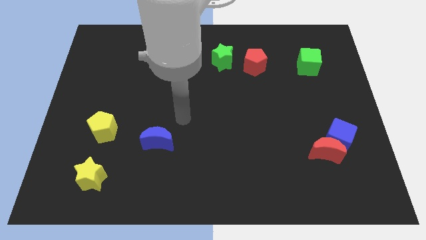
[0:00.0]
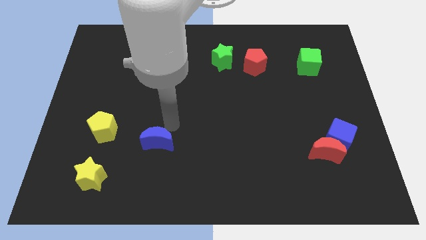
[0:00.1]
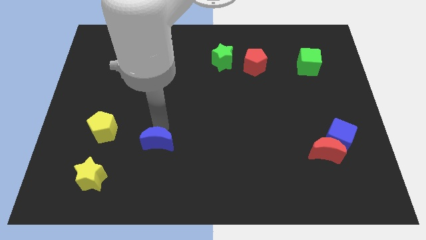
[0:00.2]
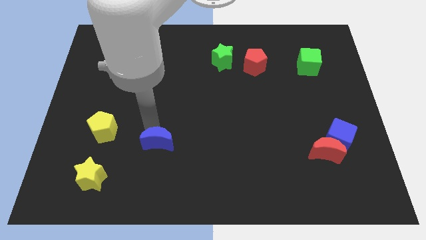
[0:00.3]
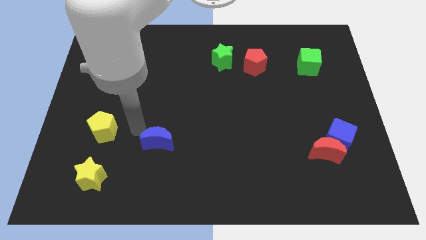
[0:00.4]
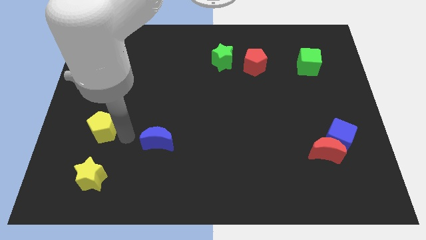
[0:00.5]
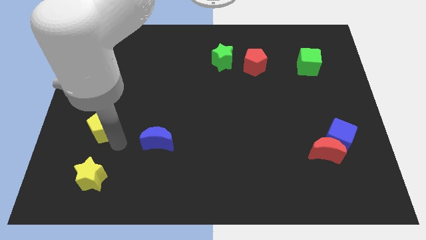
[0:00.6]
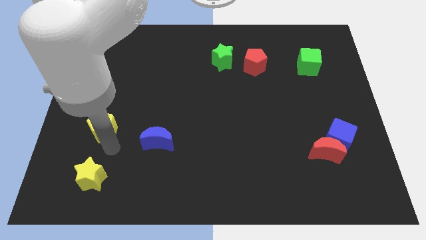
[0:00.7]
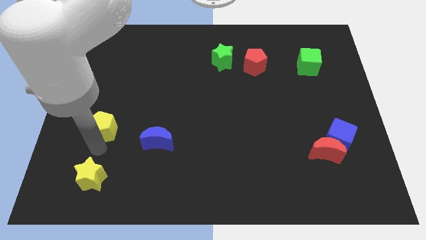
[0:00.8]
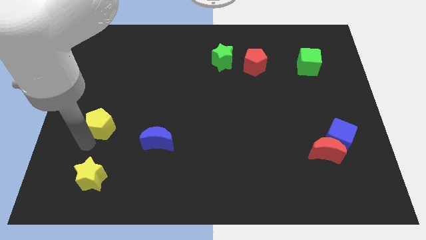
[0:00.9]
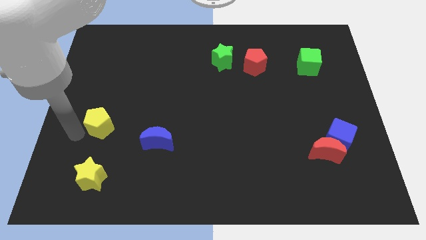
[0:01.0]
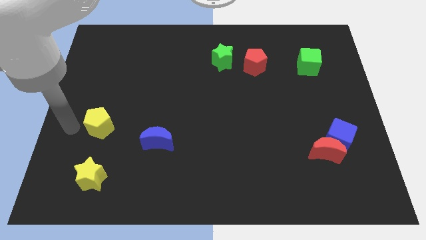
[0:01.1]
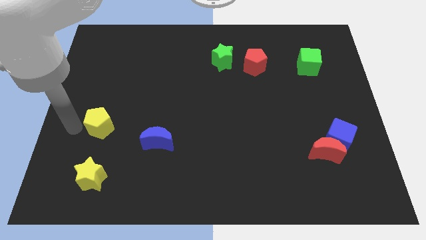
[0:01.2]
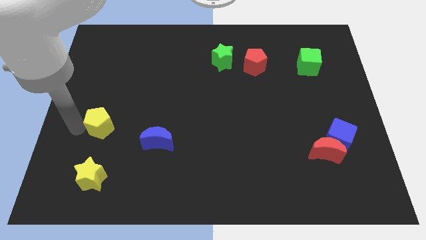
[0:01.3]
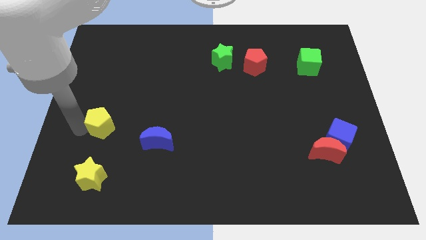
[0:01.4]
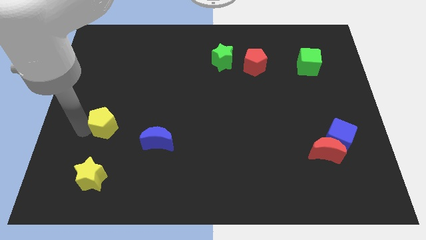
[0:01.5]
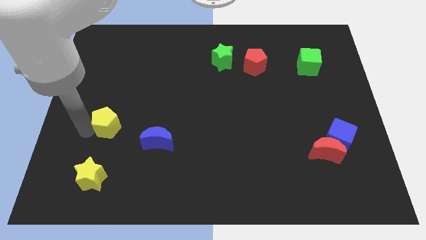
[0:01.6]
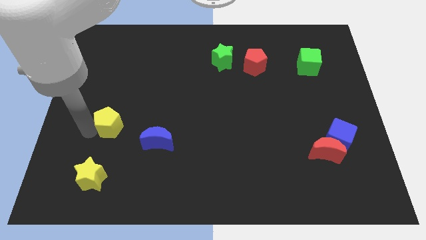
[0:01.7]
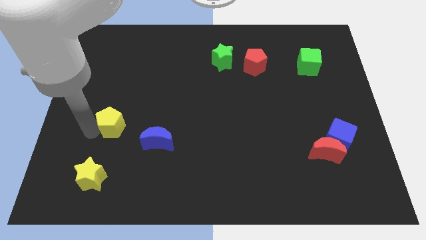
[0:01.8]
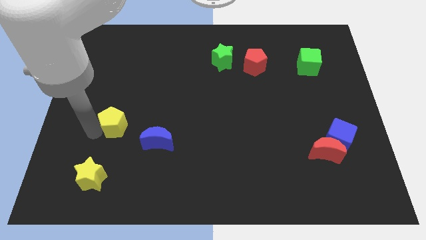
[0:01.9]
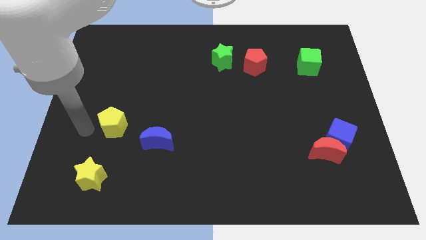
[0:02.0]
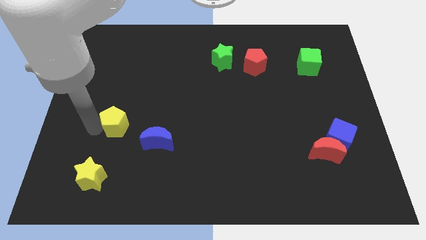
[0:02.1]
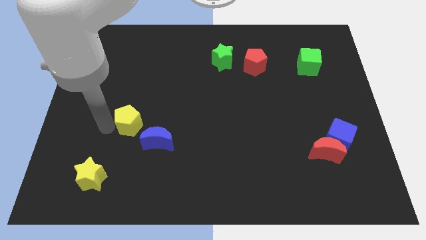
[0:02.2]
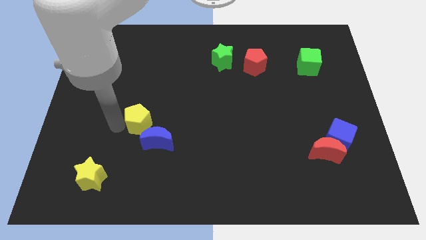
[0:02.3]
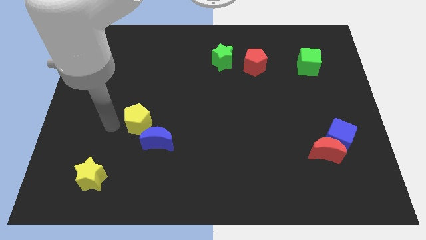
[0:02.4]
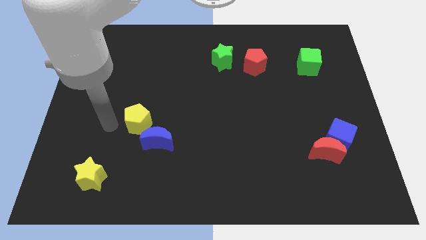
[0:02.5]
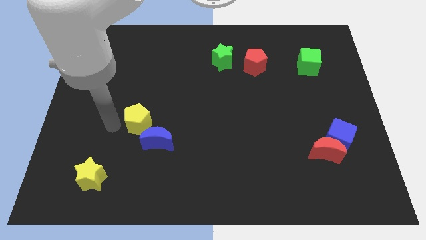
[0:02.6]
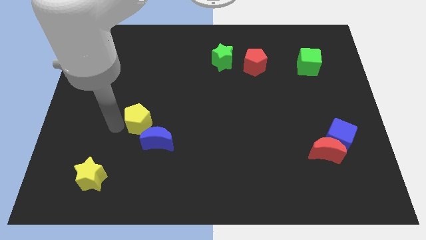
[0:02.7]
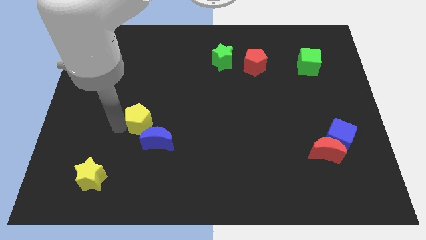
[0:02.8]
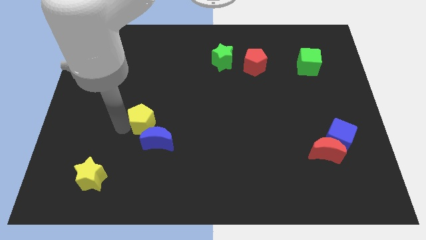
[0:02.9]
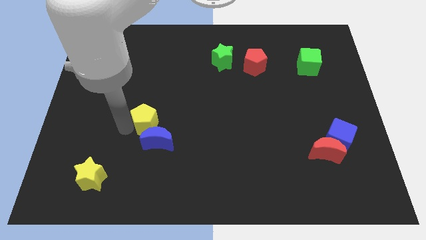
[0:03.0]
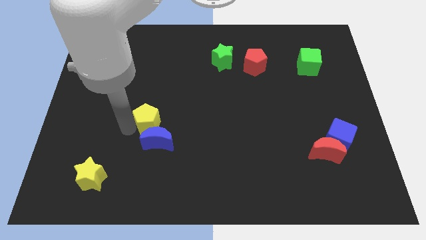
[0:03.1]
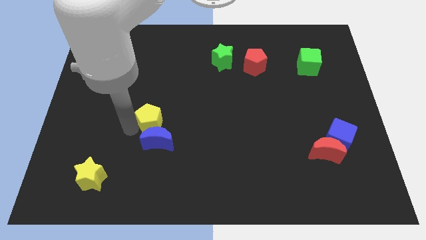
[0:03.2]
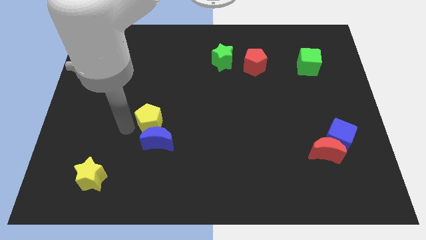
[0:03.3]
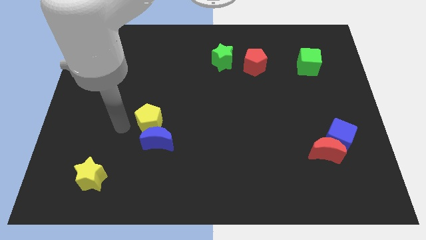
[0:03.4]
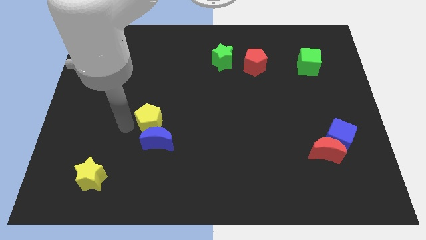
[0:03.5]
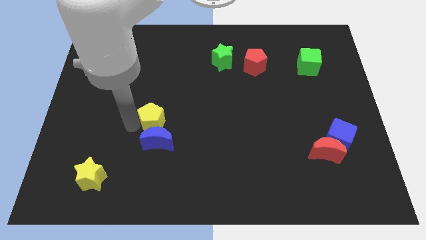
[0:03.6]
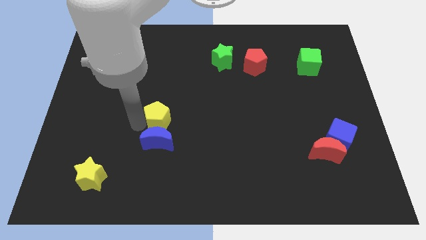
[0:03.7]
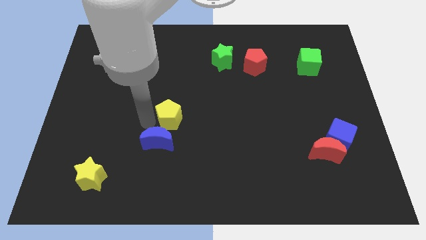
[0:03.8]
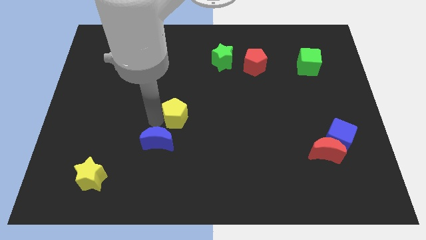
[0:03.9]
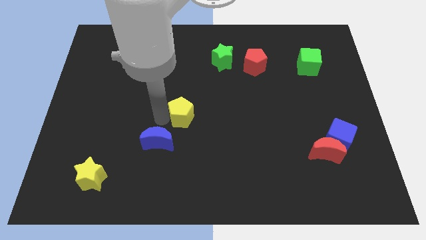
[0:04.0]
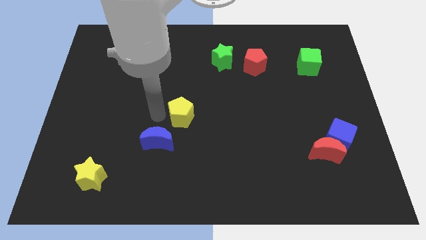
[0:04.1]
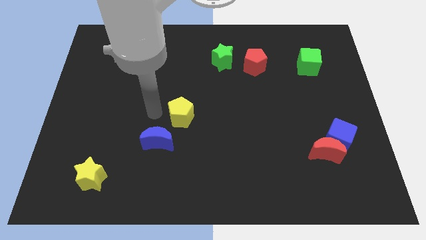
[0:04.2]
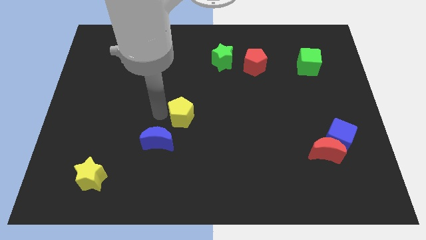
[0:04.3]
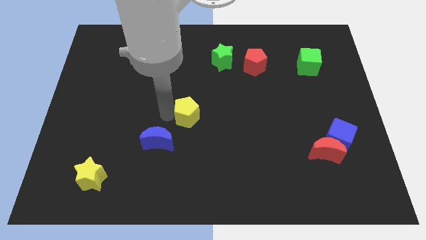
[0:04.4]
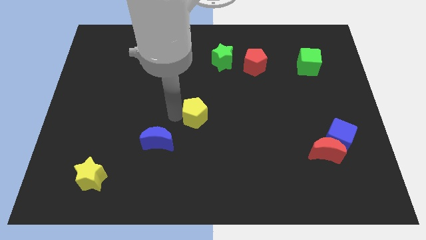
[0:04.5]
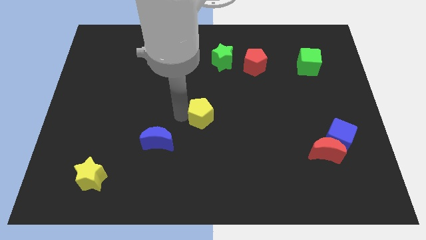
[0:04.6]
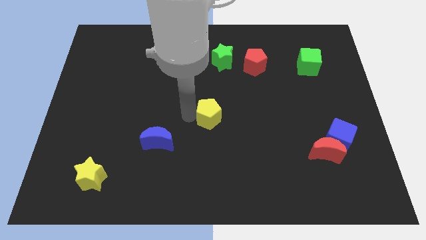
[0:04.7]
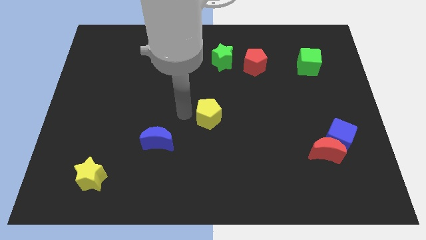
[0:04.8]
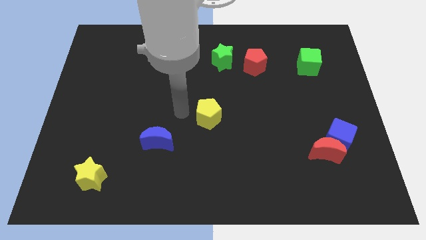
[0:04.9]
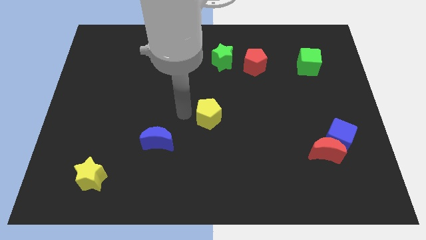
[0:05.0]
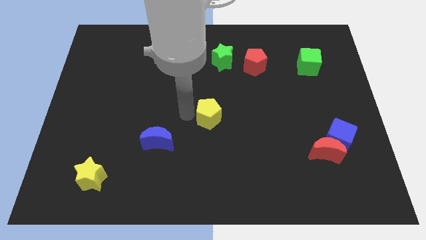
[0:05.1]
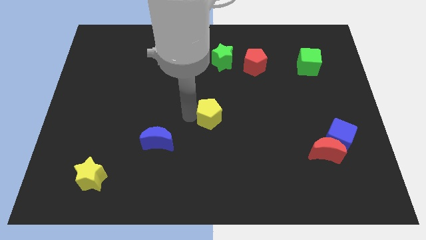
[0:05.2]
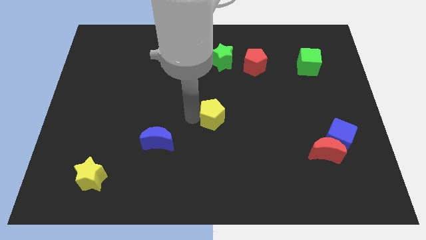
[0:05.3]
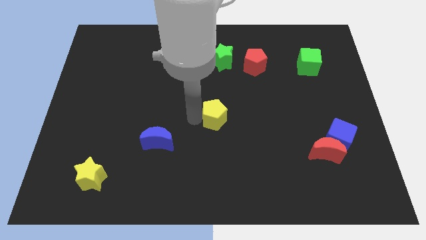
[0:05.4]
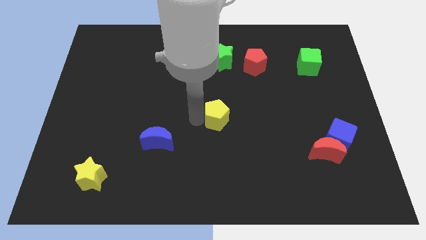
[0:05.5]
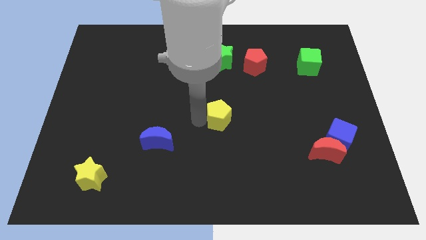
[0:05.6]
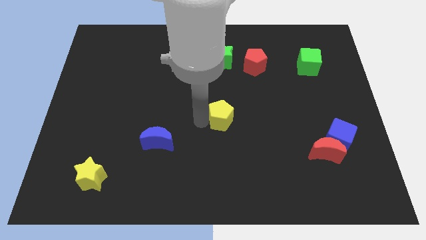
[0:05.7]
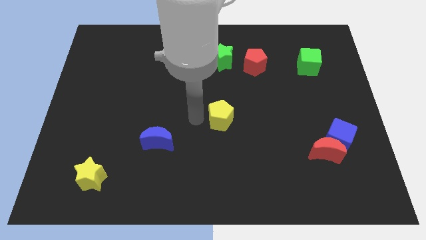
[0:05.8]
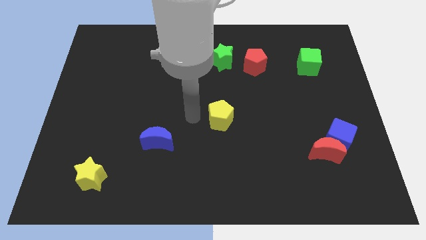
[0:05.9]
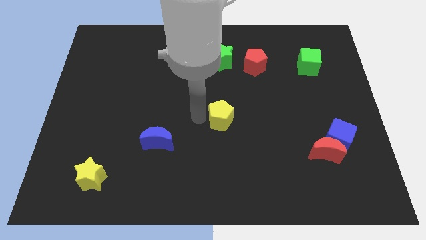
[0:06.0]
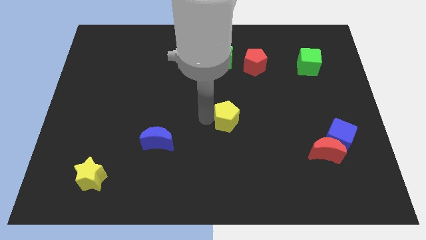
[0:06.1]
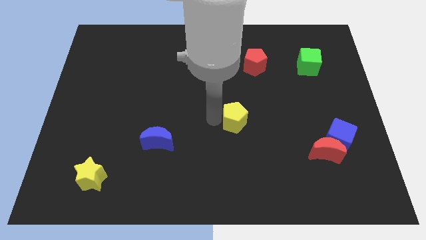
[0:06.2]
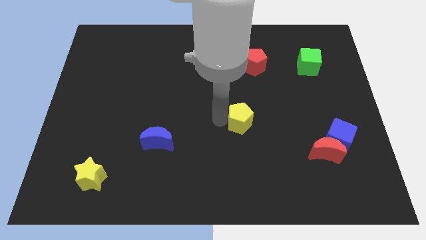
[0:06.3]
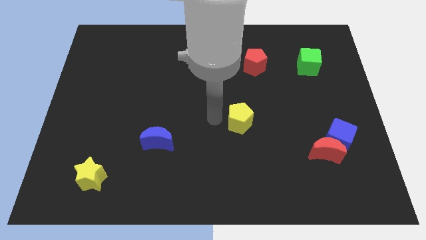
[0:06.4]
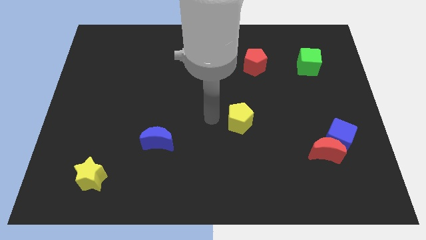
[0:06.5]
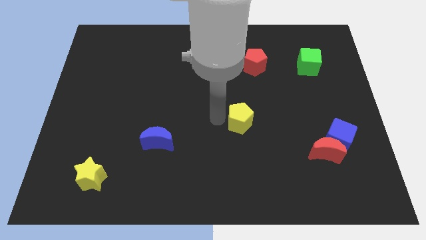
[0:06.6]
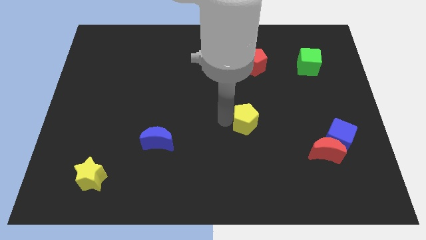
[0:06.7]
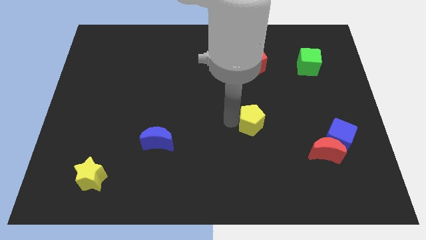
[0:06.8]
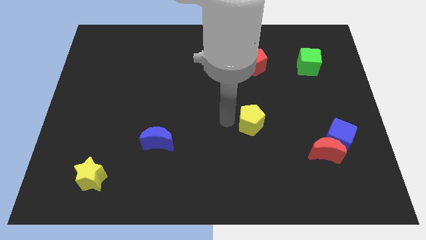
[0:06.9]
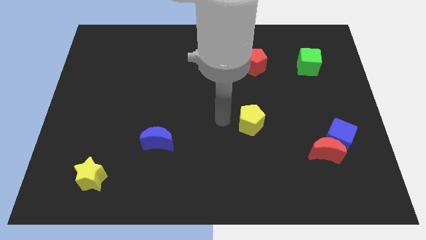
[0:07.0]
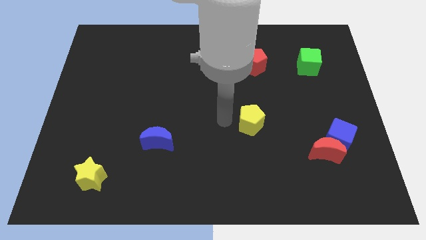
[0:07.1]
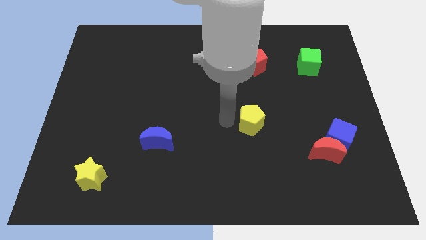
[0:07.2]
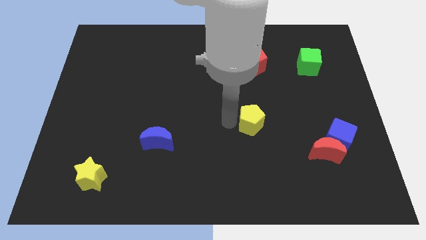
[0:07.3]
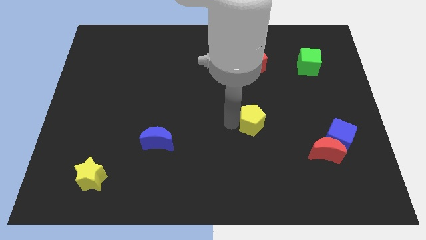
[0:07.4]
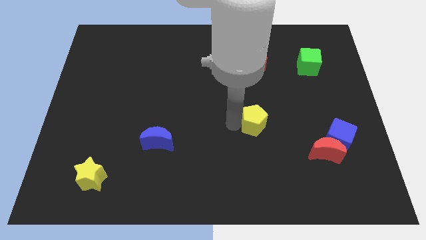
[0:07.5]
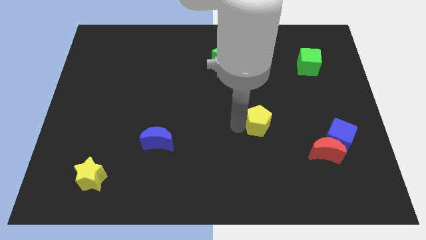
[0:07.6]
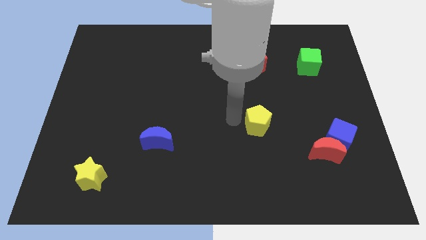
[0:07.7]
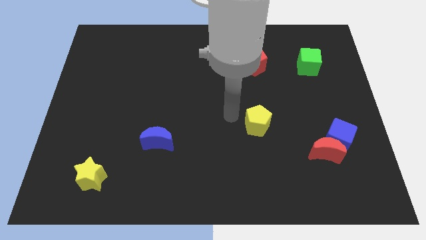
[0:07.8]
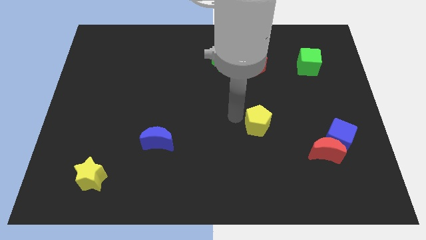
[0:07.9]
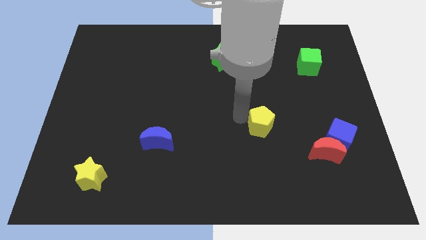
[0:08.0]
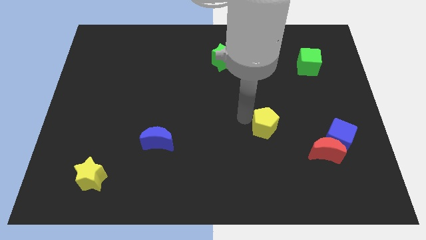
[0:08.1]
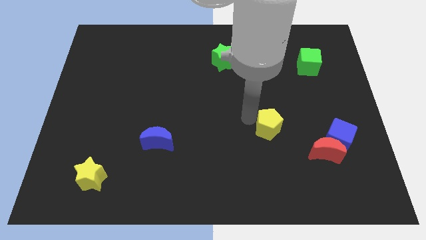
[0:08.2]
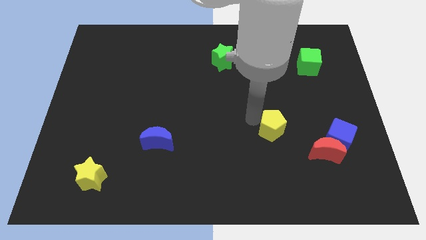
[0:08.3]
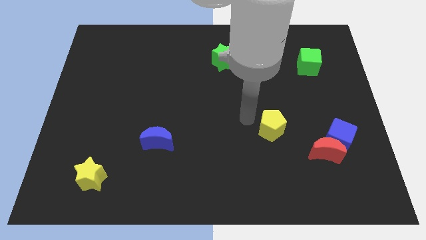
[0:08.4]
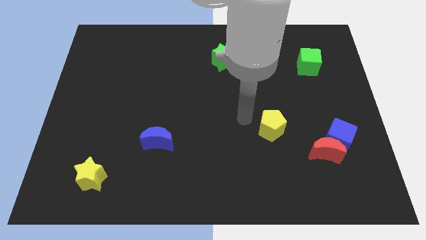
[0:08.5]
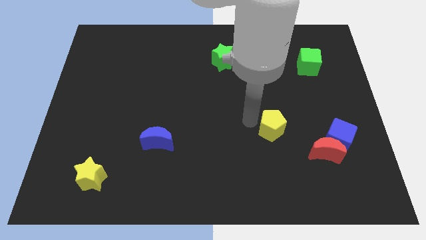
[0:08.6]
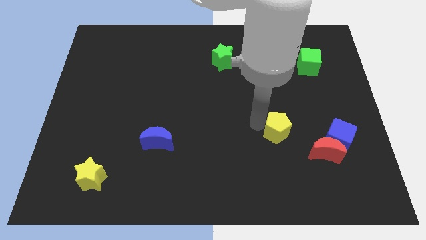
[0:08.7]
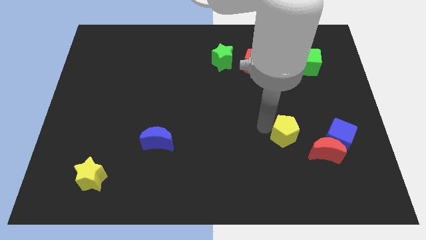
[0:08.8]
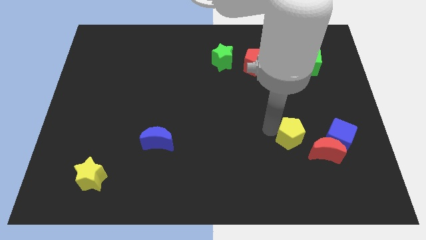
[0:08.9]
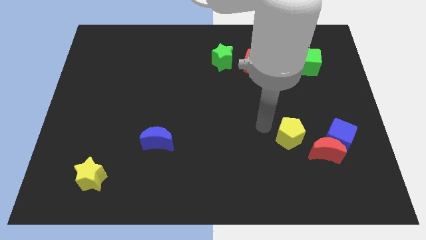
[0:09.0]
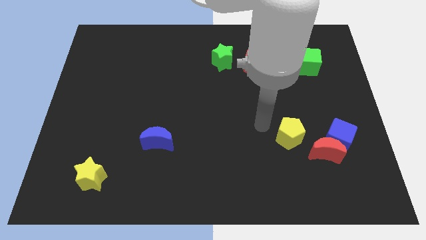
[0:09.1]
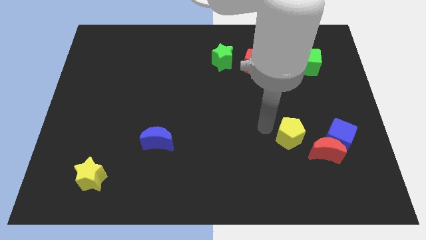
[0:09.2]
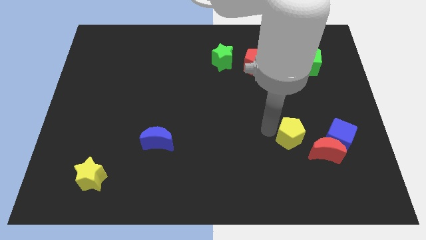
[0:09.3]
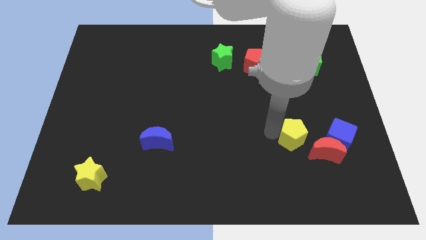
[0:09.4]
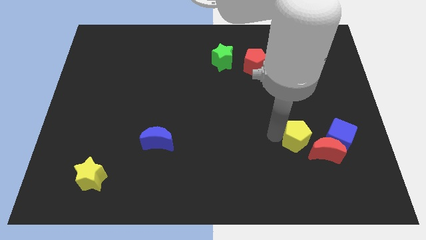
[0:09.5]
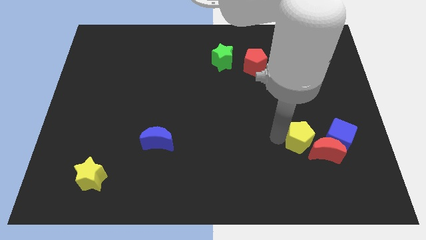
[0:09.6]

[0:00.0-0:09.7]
put the yellow pentagon next to the red moon
